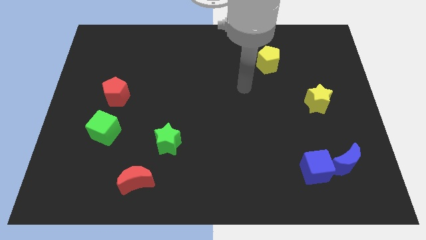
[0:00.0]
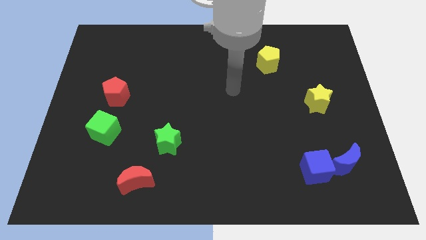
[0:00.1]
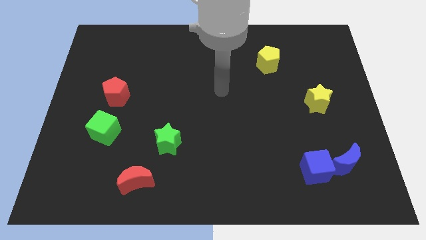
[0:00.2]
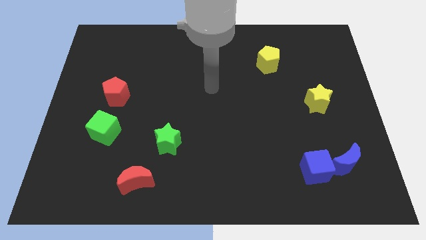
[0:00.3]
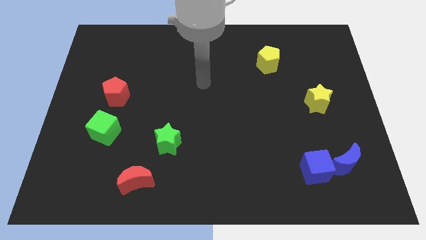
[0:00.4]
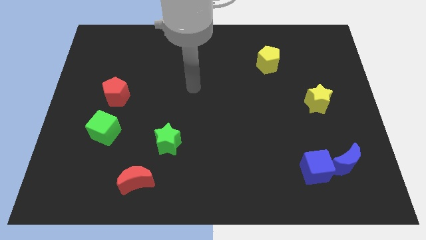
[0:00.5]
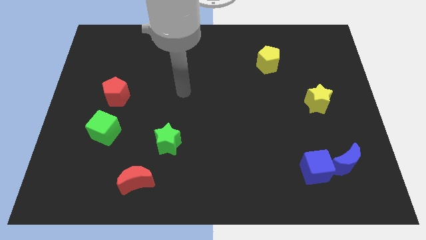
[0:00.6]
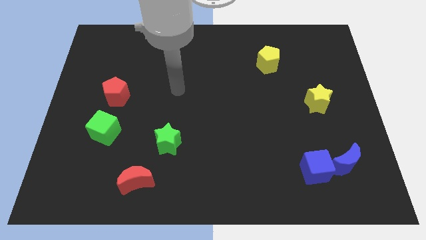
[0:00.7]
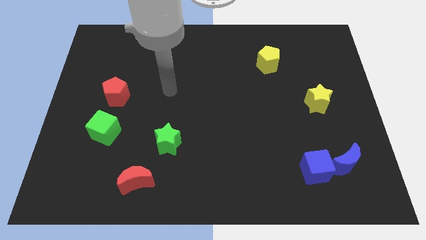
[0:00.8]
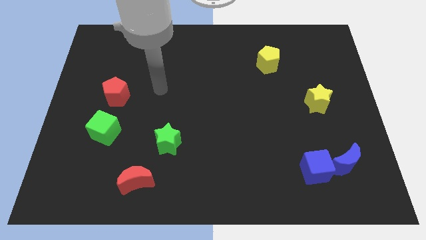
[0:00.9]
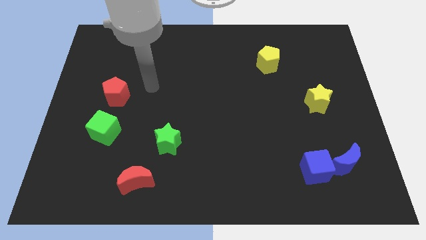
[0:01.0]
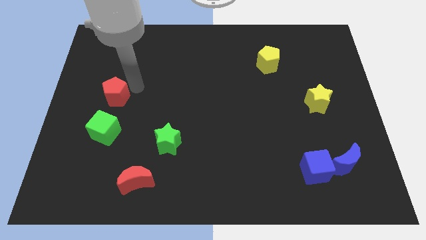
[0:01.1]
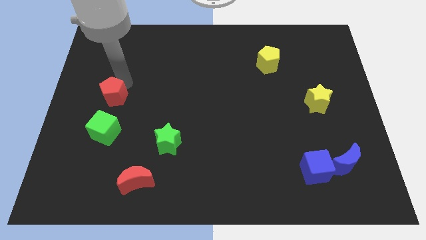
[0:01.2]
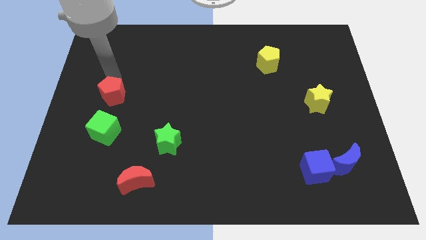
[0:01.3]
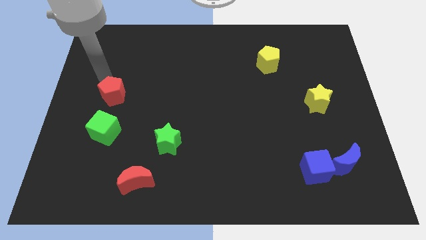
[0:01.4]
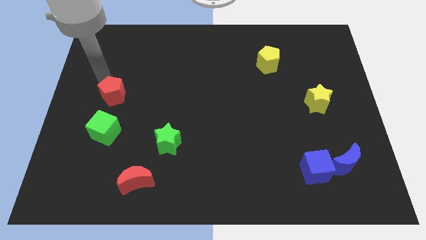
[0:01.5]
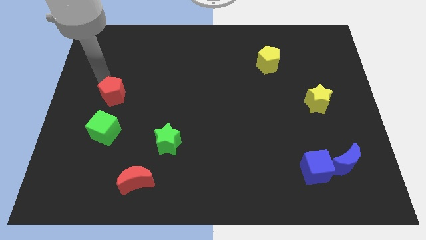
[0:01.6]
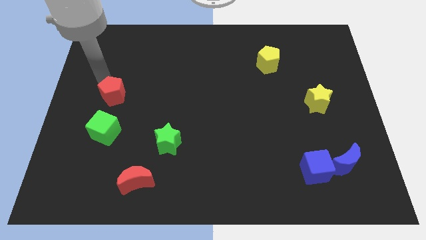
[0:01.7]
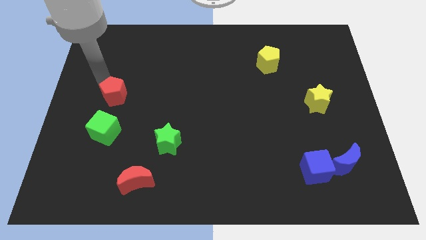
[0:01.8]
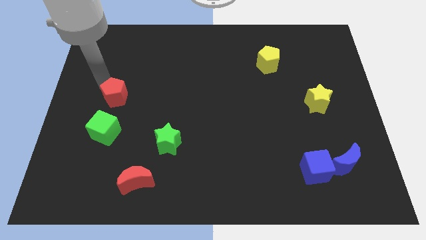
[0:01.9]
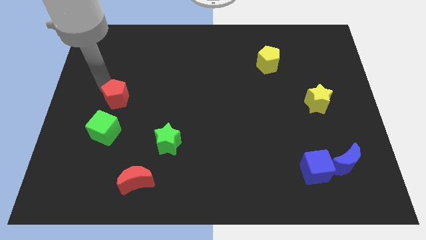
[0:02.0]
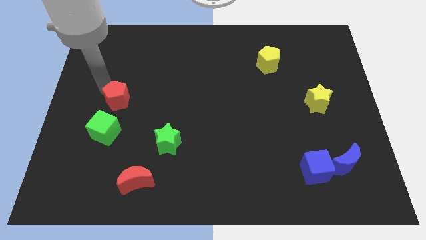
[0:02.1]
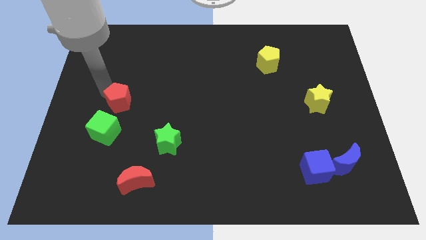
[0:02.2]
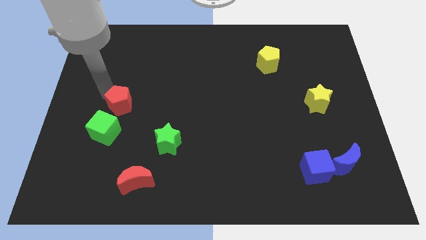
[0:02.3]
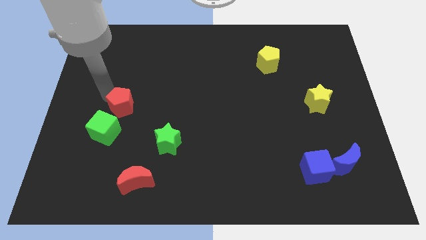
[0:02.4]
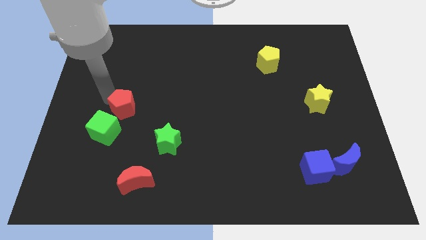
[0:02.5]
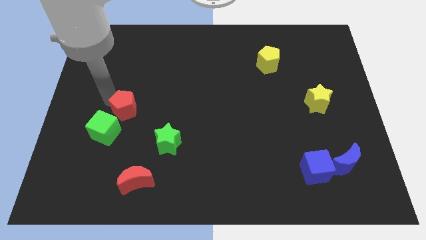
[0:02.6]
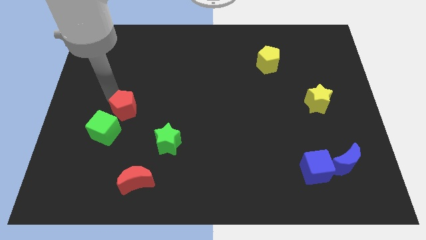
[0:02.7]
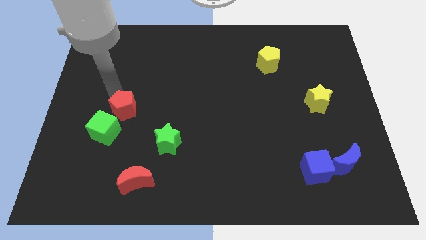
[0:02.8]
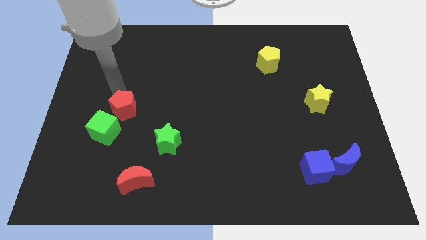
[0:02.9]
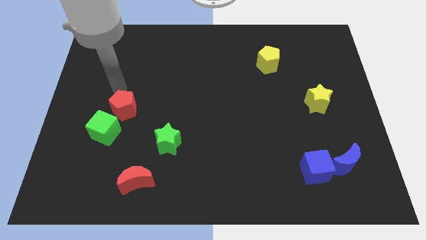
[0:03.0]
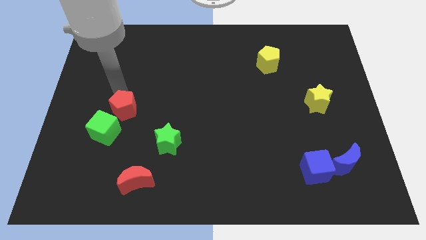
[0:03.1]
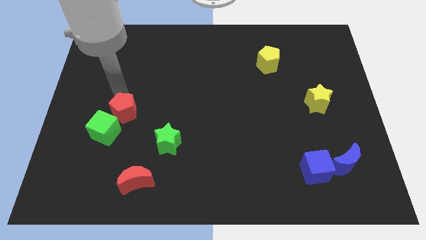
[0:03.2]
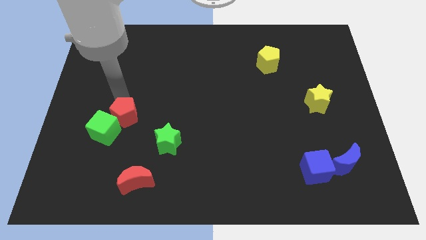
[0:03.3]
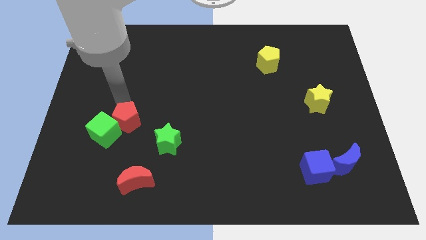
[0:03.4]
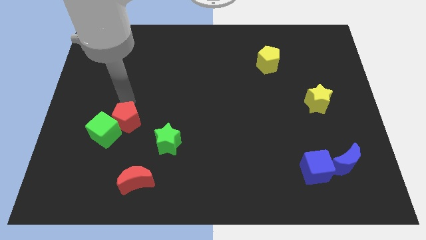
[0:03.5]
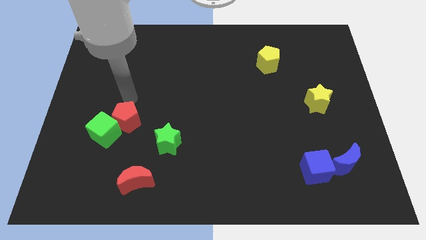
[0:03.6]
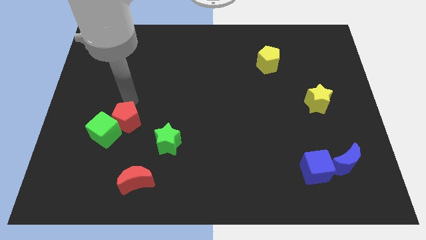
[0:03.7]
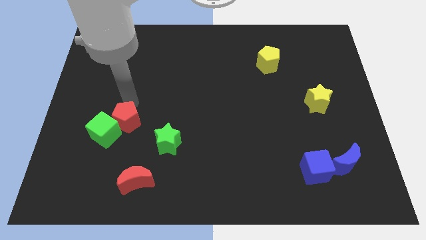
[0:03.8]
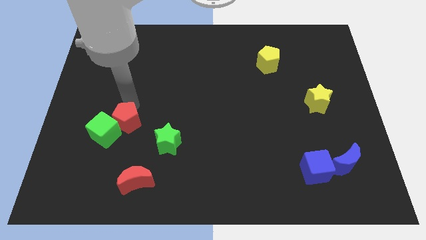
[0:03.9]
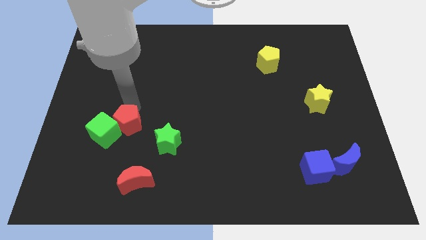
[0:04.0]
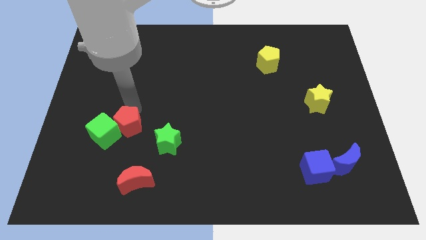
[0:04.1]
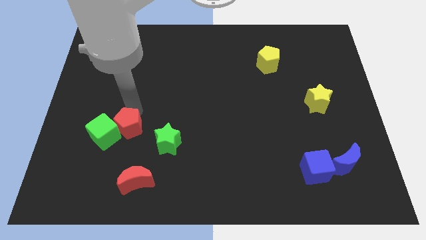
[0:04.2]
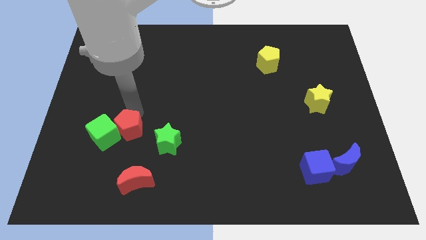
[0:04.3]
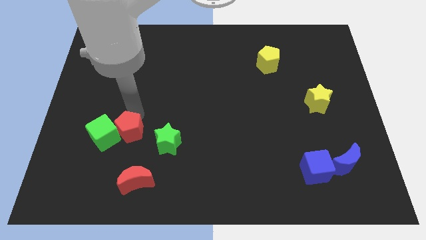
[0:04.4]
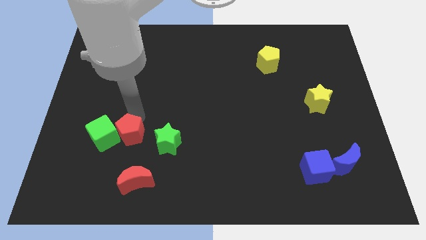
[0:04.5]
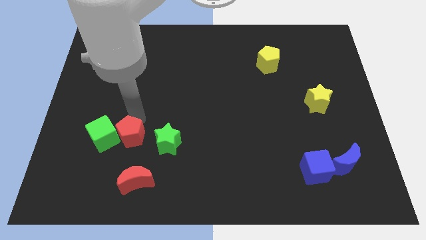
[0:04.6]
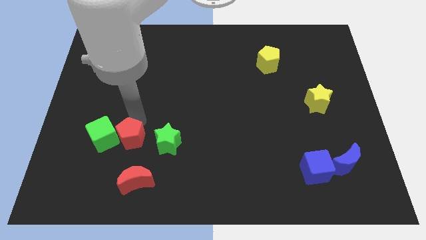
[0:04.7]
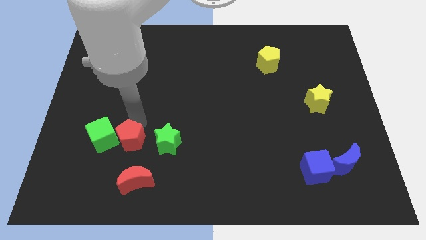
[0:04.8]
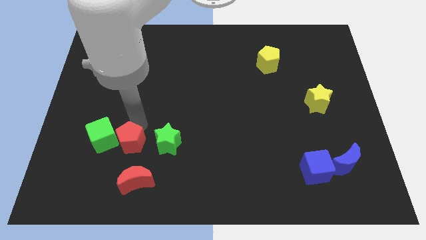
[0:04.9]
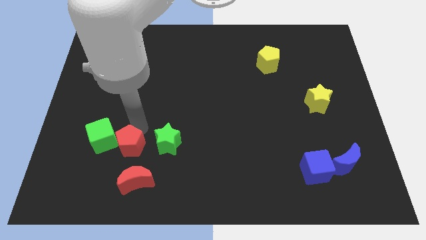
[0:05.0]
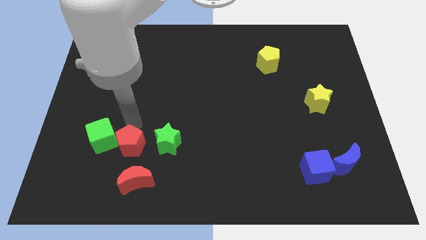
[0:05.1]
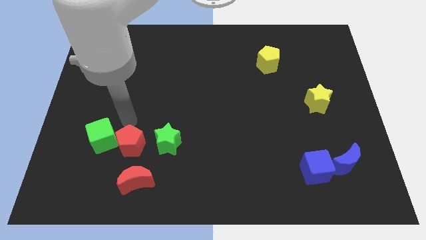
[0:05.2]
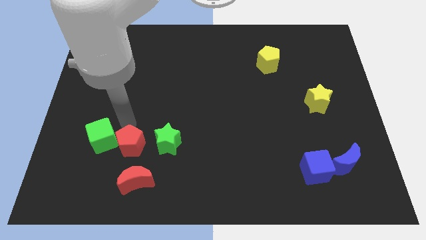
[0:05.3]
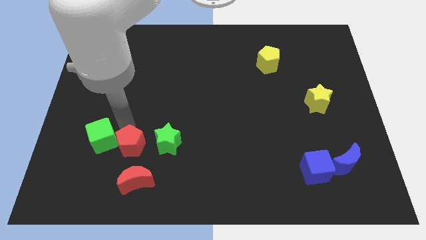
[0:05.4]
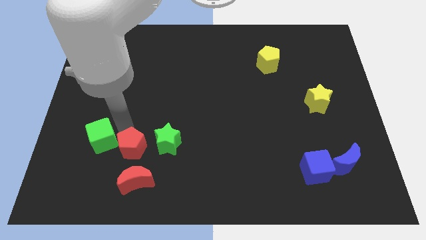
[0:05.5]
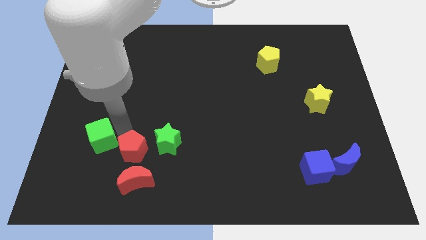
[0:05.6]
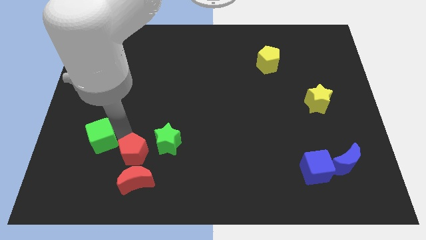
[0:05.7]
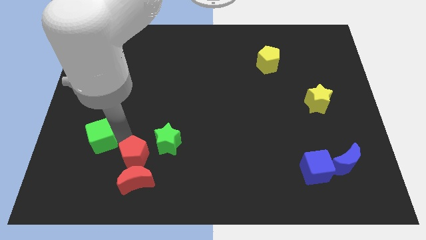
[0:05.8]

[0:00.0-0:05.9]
push the red pentagon towards the red moon

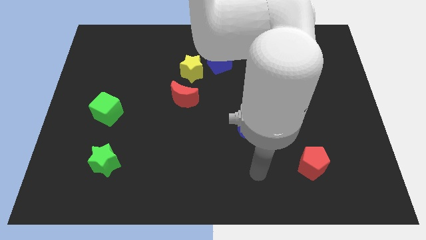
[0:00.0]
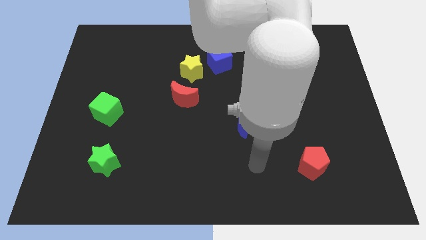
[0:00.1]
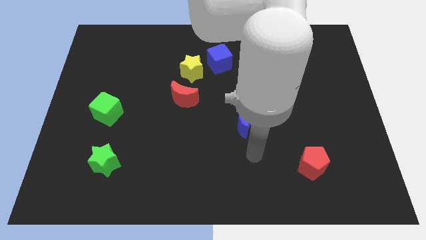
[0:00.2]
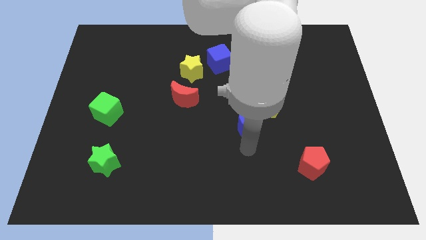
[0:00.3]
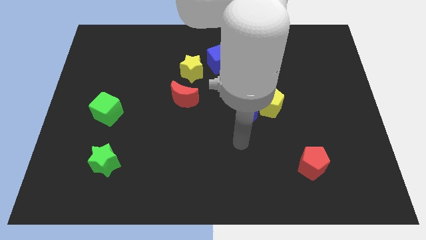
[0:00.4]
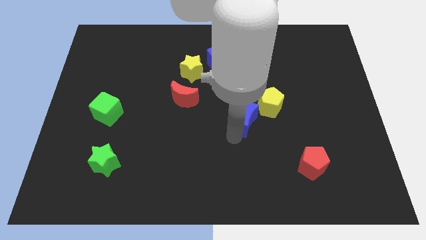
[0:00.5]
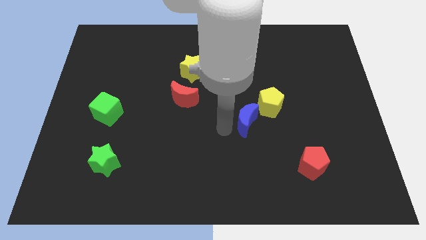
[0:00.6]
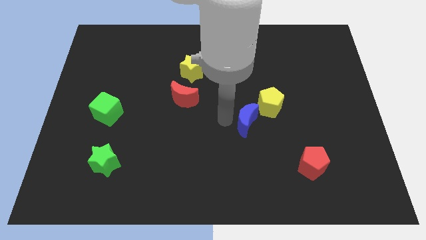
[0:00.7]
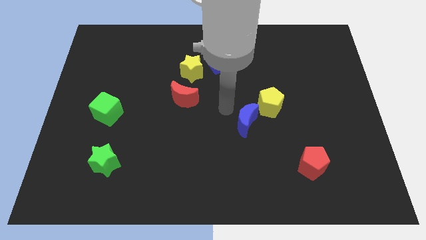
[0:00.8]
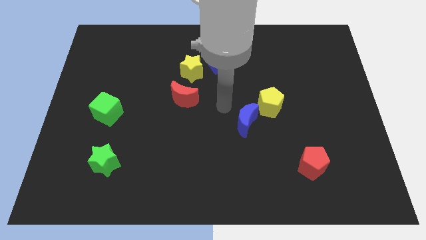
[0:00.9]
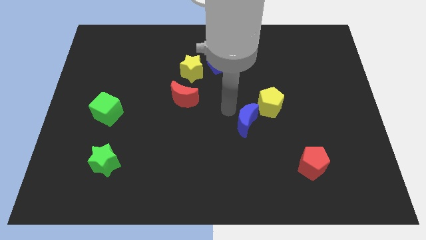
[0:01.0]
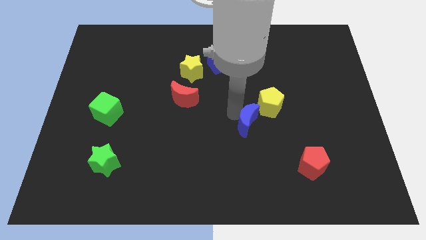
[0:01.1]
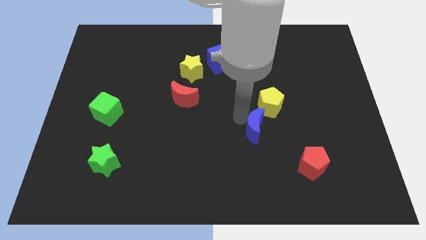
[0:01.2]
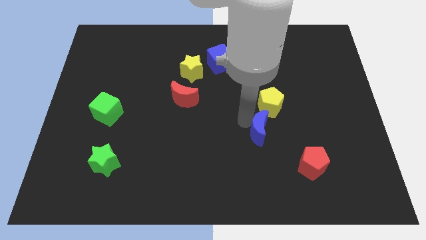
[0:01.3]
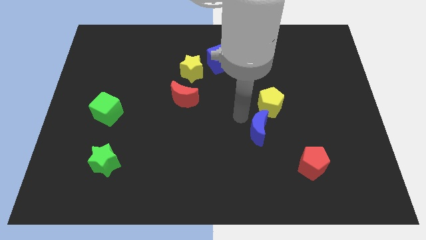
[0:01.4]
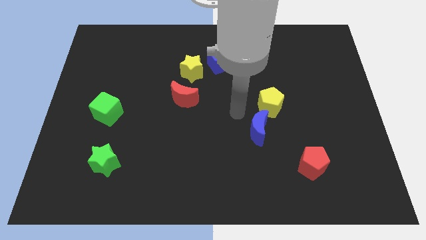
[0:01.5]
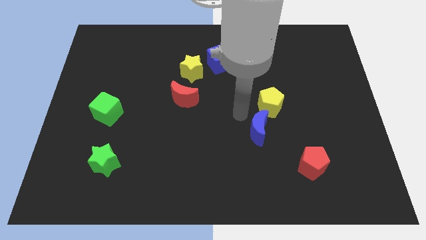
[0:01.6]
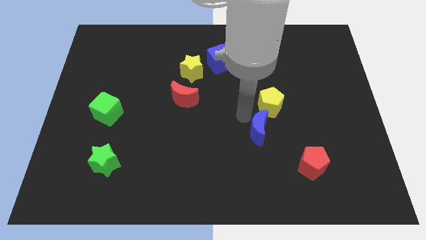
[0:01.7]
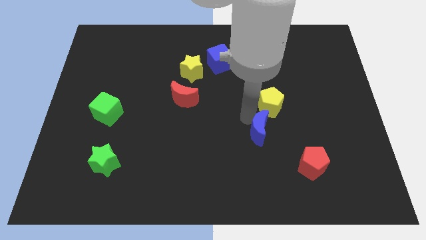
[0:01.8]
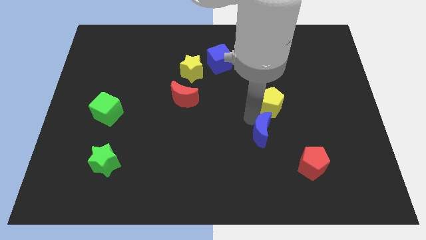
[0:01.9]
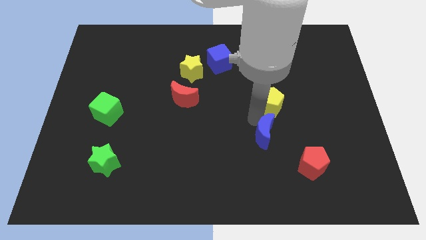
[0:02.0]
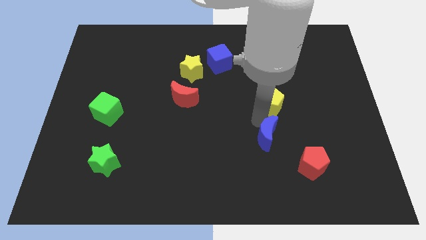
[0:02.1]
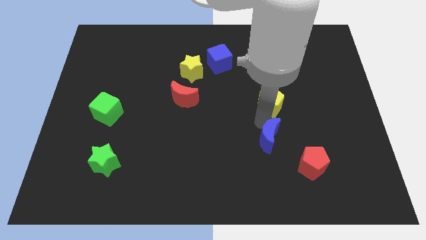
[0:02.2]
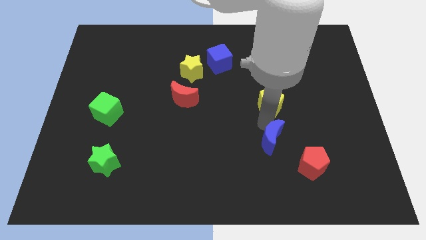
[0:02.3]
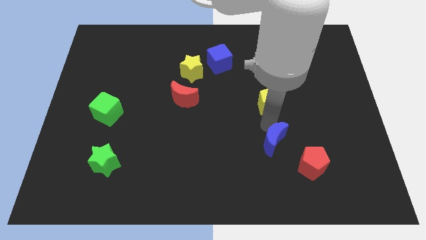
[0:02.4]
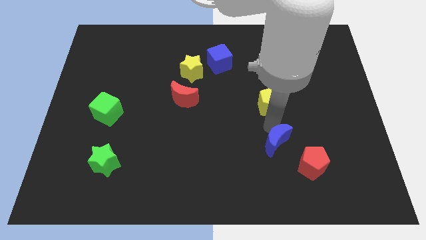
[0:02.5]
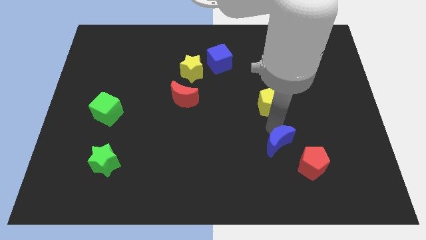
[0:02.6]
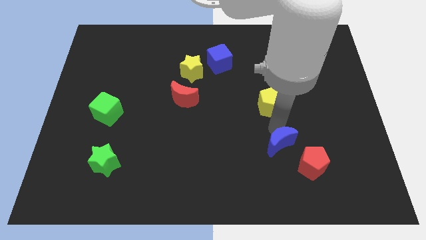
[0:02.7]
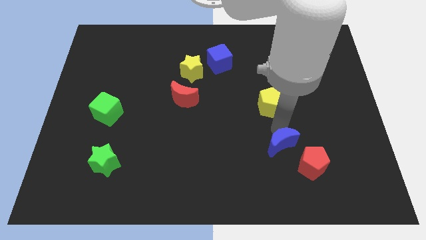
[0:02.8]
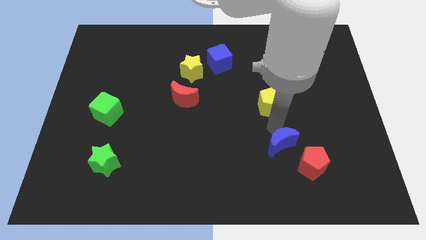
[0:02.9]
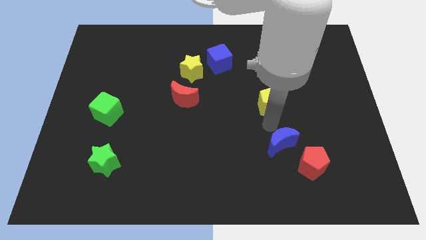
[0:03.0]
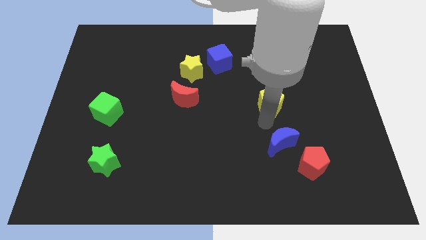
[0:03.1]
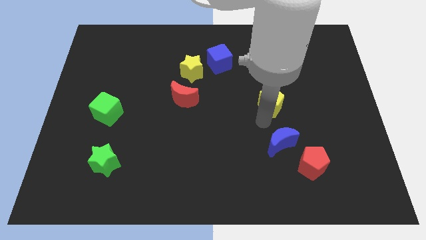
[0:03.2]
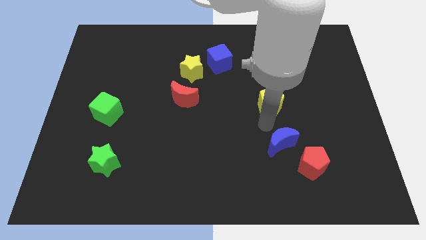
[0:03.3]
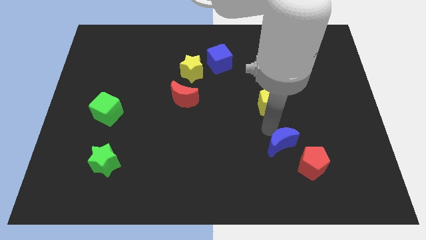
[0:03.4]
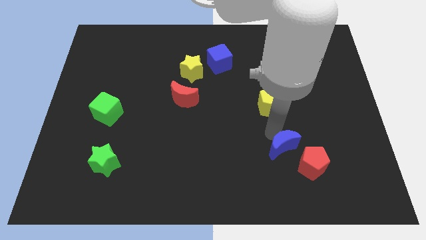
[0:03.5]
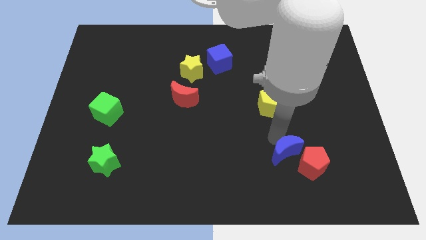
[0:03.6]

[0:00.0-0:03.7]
slide the blue moon close to the red pentagon
